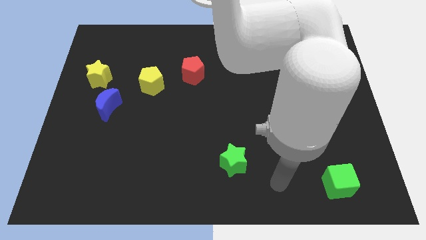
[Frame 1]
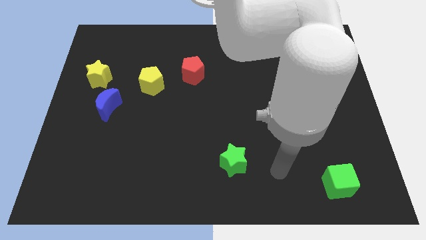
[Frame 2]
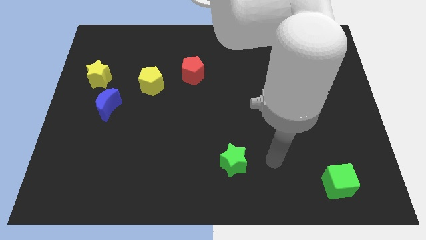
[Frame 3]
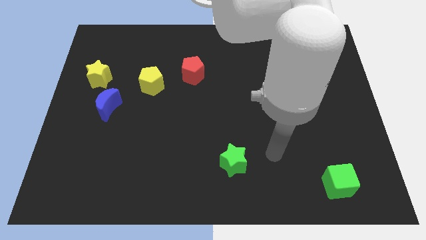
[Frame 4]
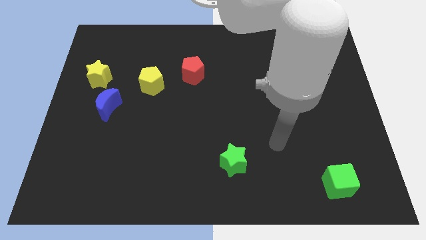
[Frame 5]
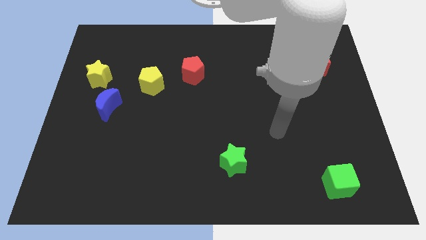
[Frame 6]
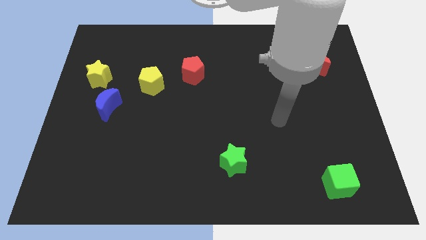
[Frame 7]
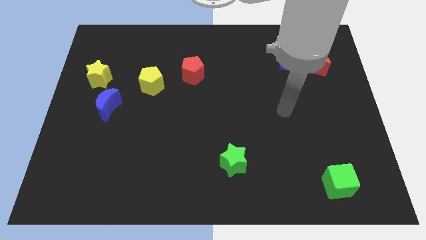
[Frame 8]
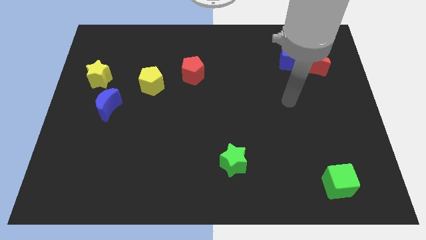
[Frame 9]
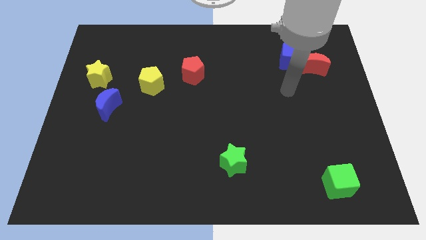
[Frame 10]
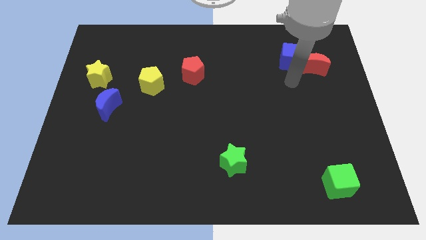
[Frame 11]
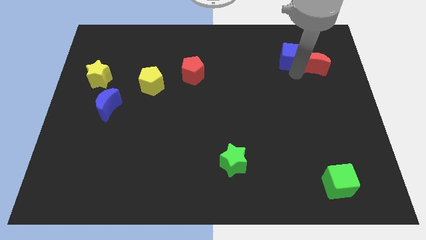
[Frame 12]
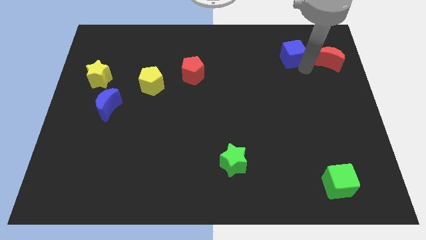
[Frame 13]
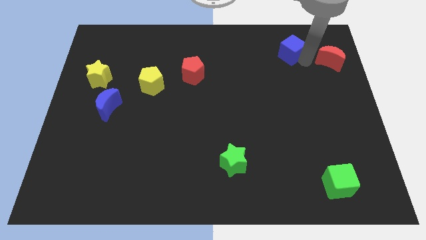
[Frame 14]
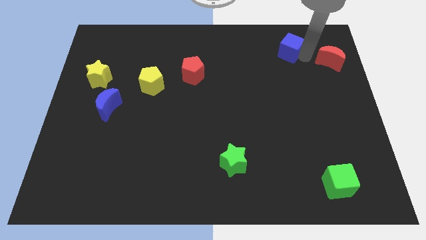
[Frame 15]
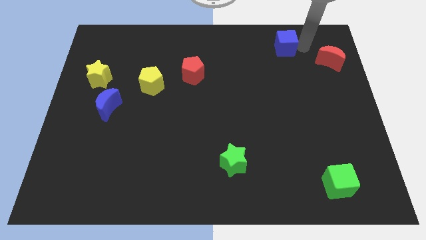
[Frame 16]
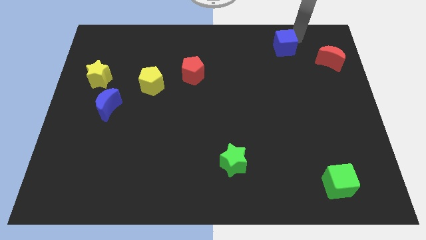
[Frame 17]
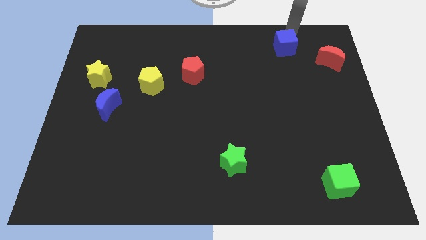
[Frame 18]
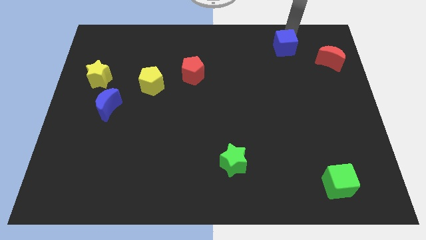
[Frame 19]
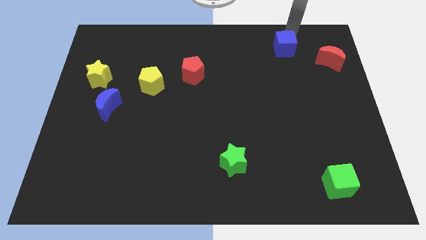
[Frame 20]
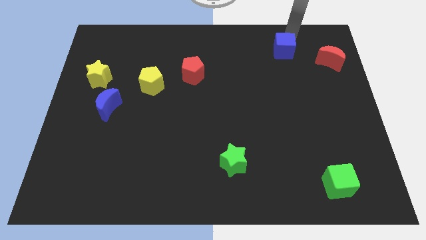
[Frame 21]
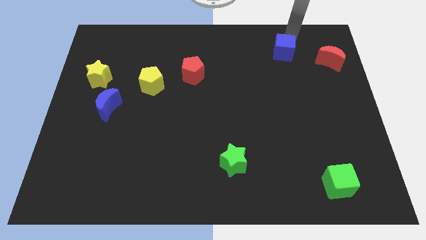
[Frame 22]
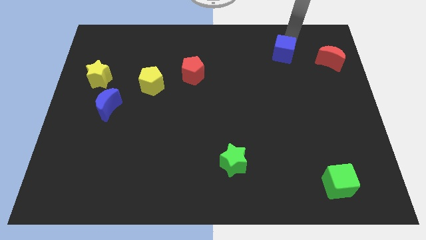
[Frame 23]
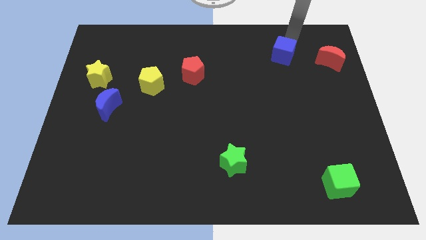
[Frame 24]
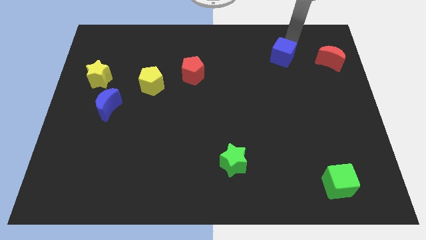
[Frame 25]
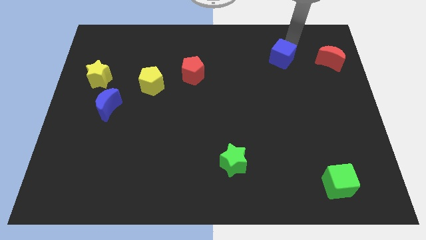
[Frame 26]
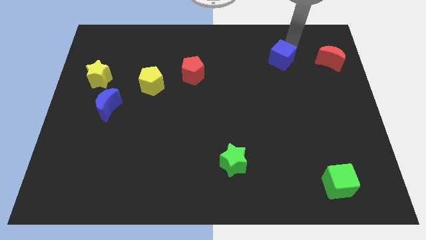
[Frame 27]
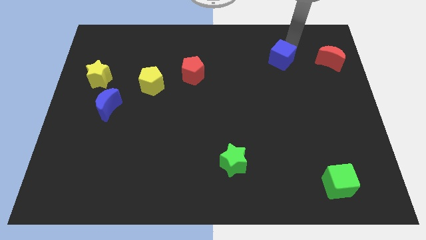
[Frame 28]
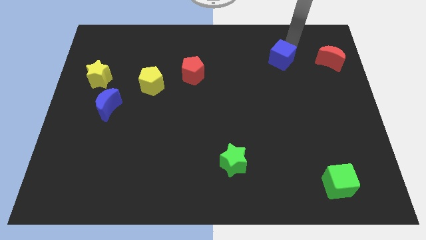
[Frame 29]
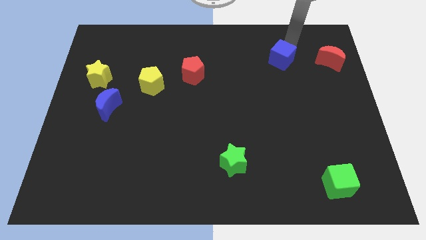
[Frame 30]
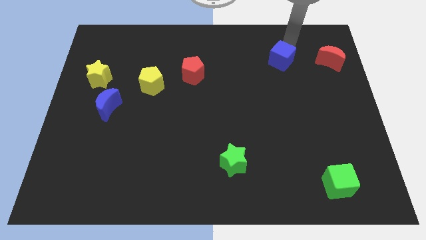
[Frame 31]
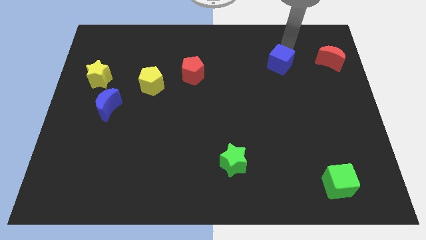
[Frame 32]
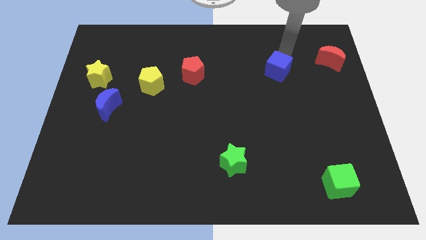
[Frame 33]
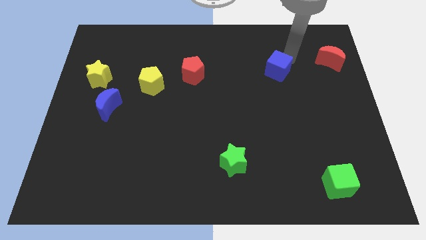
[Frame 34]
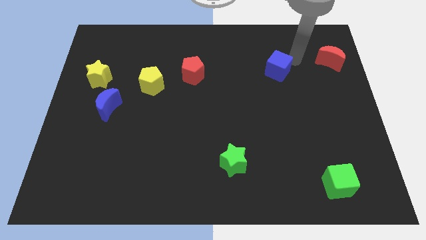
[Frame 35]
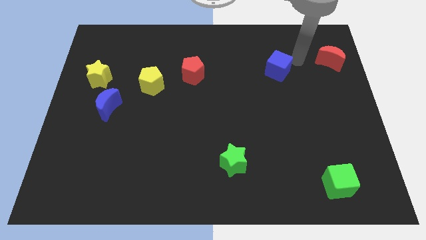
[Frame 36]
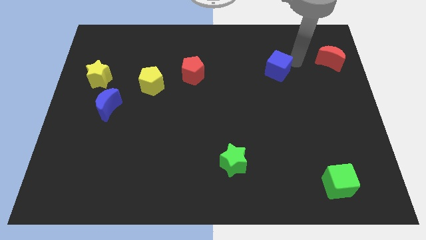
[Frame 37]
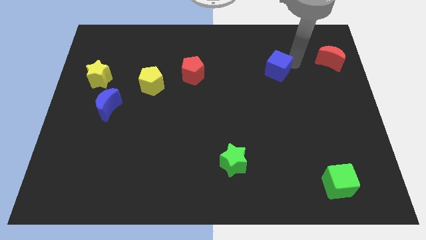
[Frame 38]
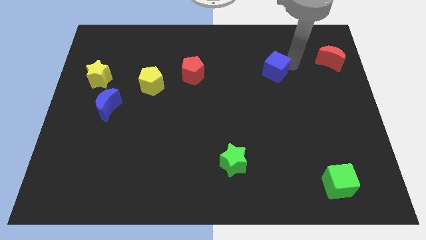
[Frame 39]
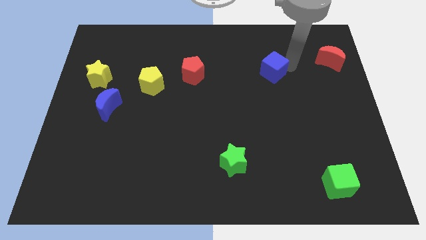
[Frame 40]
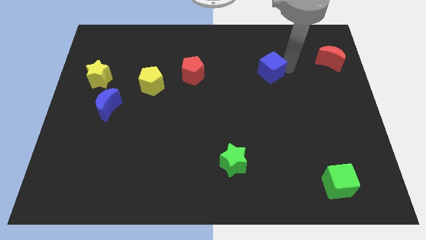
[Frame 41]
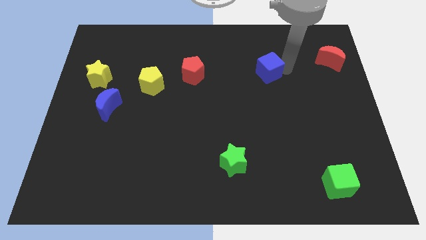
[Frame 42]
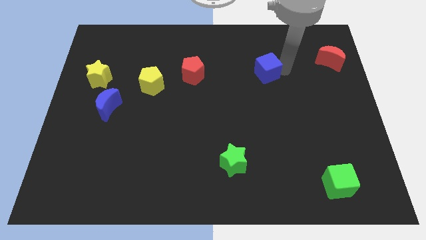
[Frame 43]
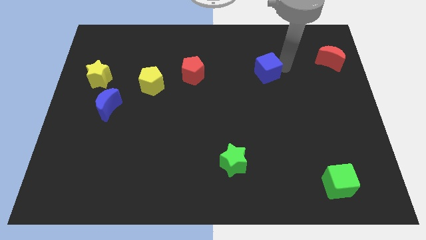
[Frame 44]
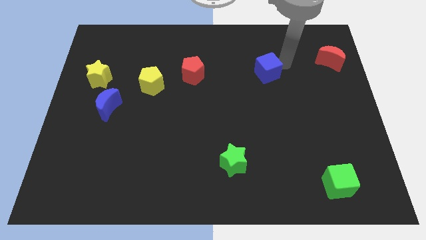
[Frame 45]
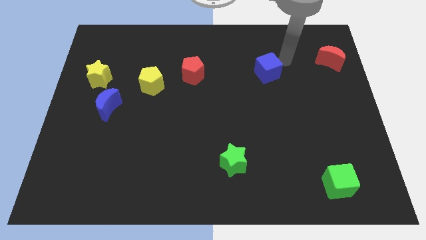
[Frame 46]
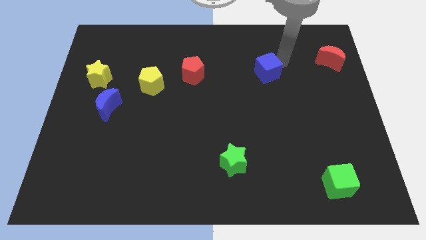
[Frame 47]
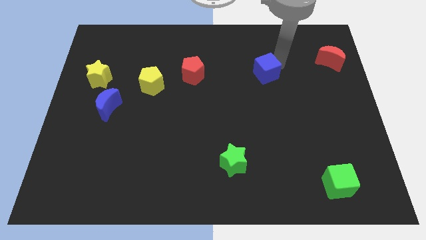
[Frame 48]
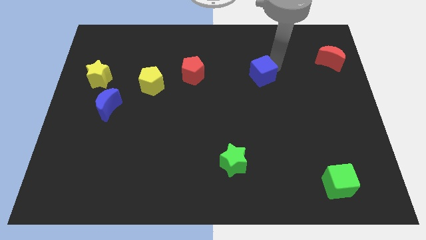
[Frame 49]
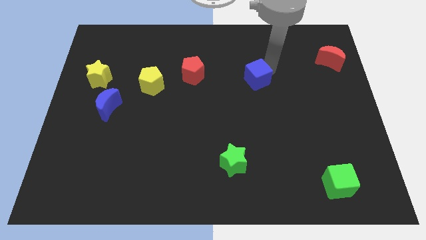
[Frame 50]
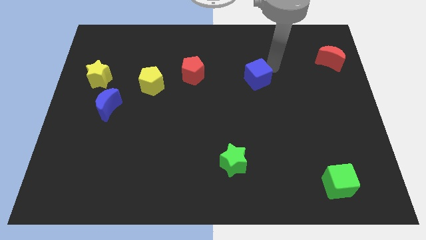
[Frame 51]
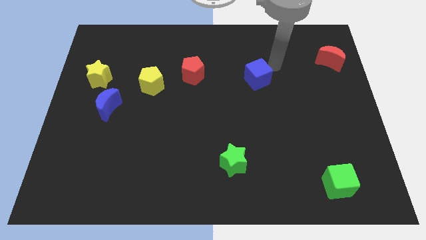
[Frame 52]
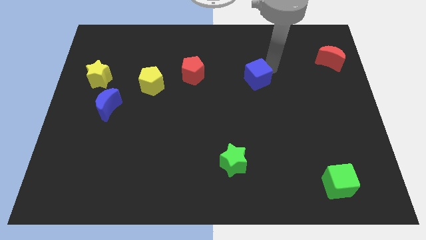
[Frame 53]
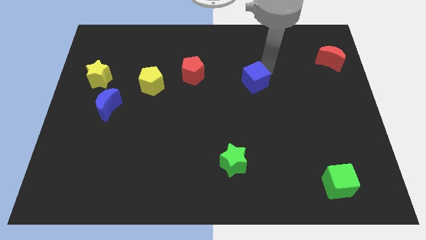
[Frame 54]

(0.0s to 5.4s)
push the blue cube to the center of the board

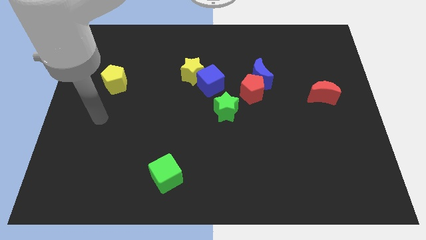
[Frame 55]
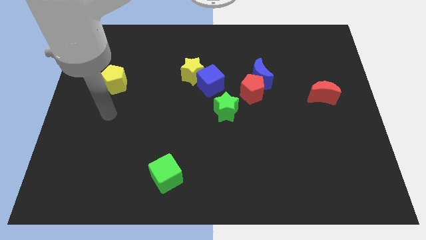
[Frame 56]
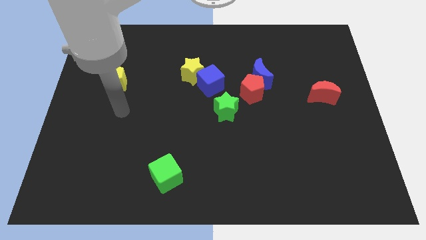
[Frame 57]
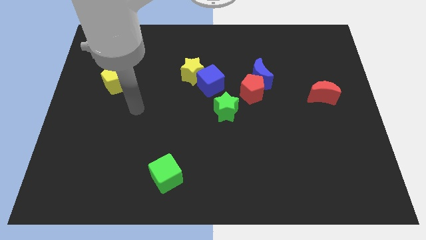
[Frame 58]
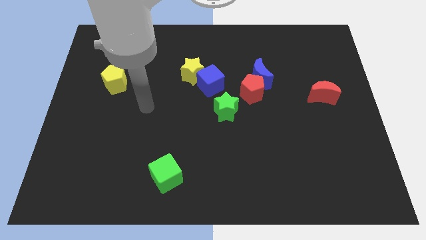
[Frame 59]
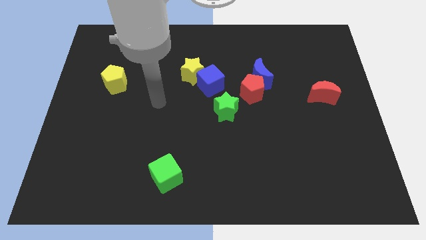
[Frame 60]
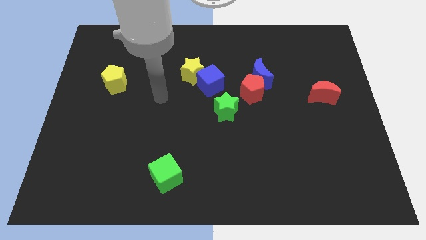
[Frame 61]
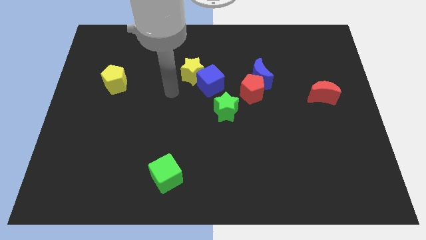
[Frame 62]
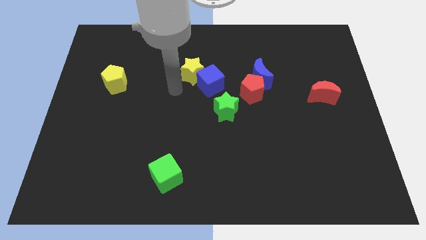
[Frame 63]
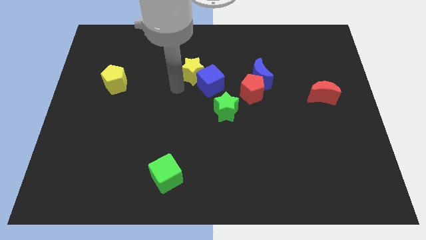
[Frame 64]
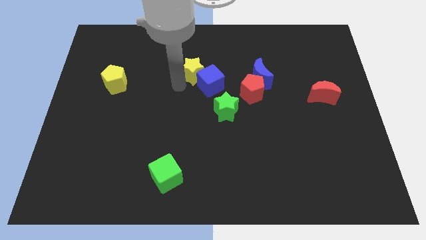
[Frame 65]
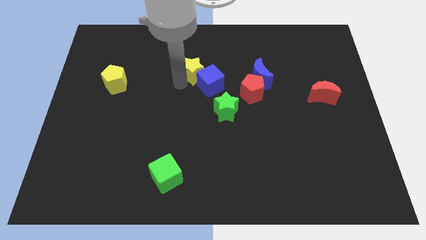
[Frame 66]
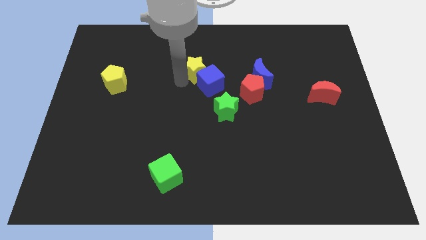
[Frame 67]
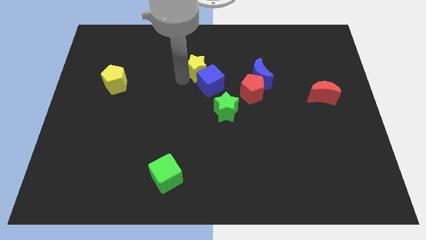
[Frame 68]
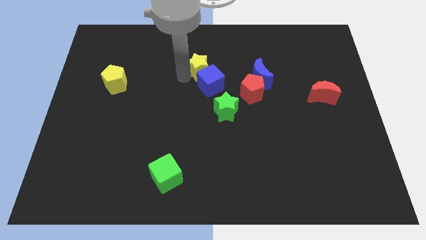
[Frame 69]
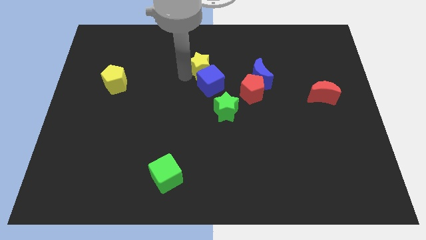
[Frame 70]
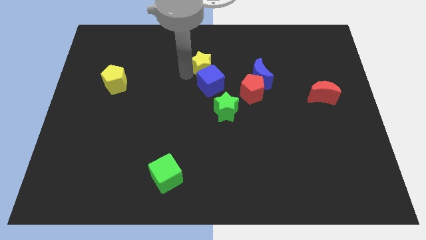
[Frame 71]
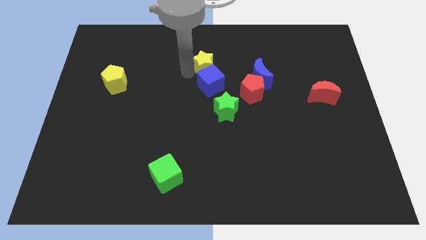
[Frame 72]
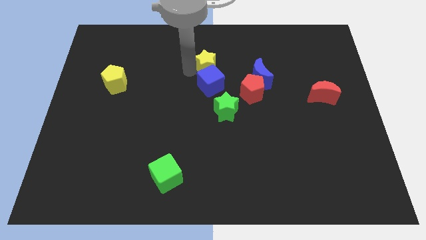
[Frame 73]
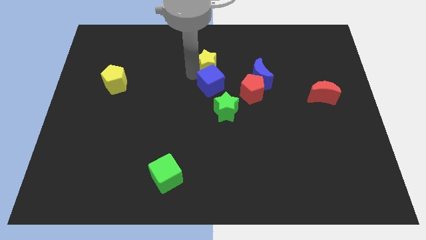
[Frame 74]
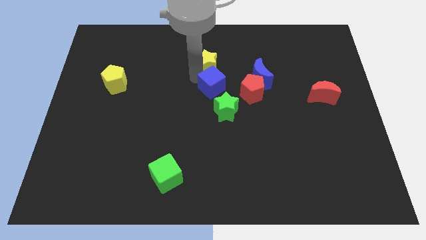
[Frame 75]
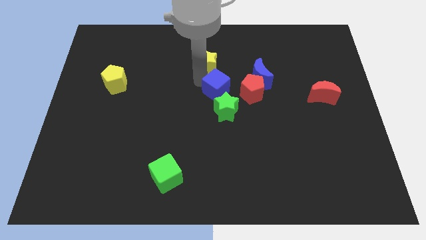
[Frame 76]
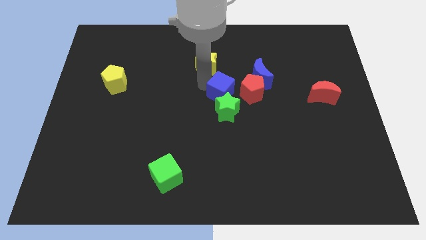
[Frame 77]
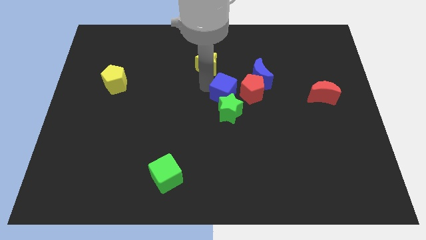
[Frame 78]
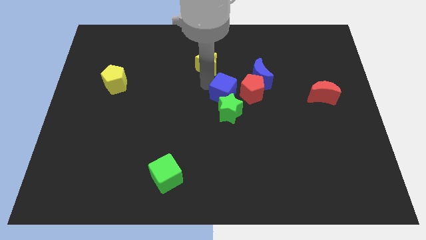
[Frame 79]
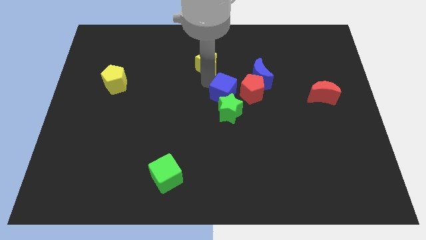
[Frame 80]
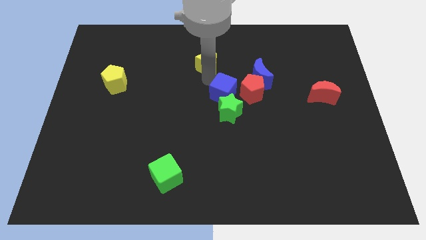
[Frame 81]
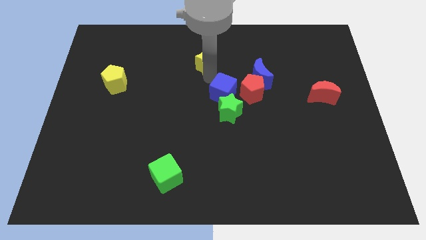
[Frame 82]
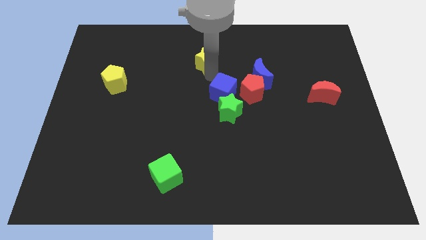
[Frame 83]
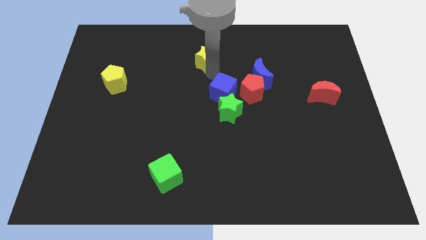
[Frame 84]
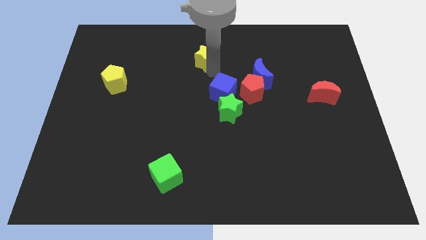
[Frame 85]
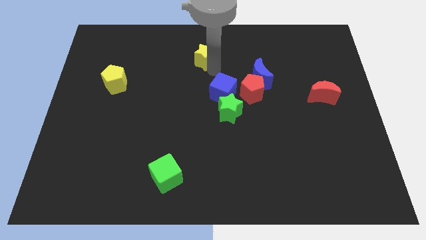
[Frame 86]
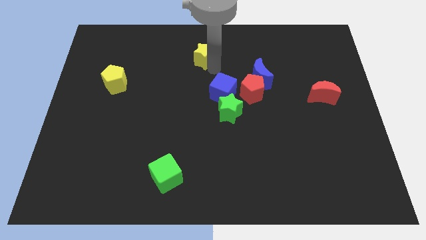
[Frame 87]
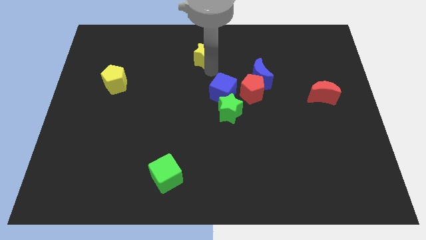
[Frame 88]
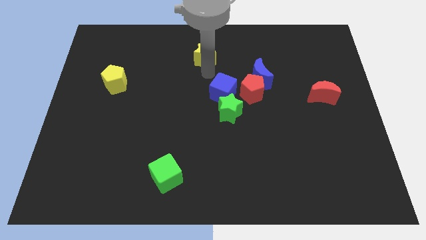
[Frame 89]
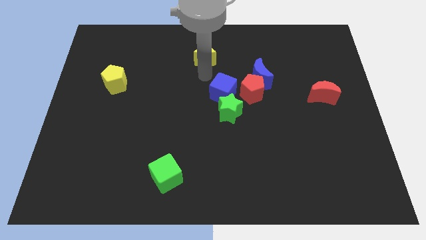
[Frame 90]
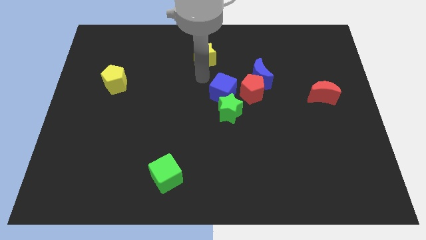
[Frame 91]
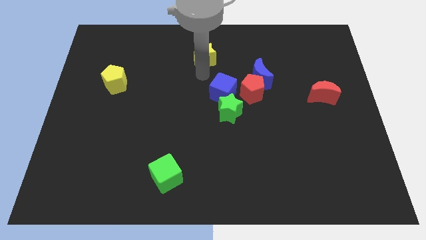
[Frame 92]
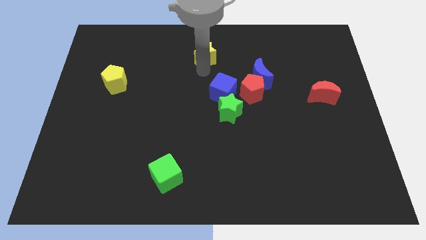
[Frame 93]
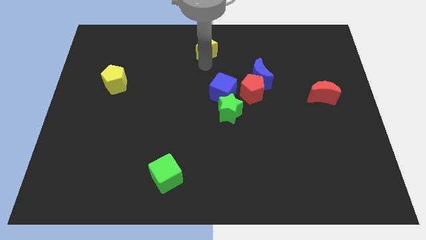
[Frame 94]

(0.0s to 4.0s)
push the yellow star to the towards your base
